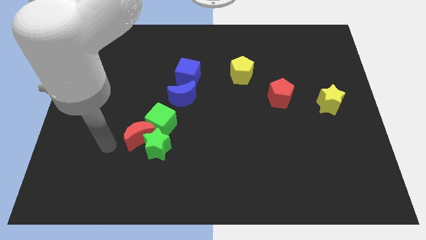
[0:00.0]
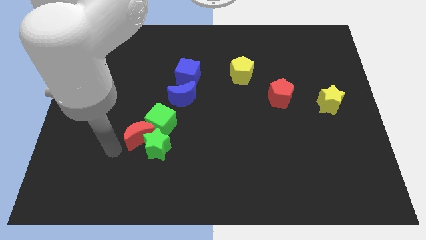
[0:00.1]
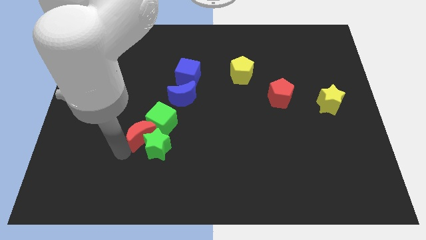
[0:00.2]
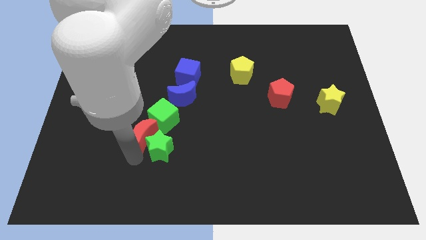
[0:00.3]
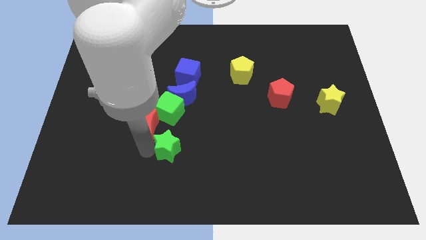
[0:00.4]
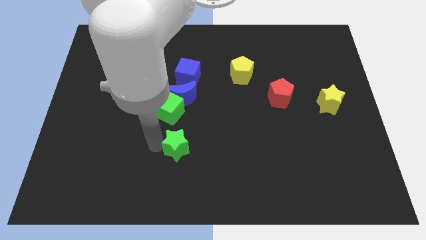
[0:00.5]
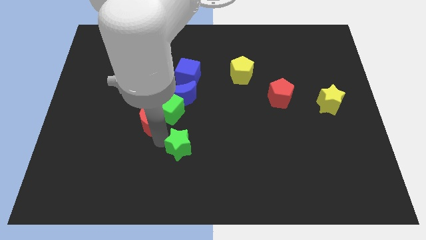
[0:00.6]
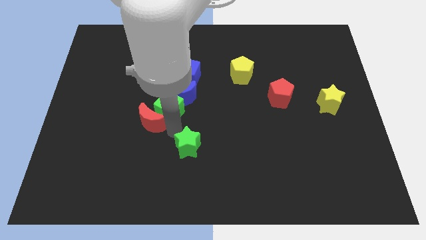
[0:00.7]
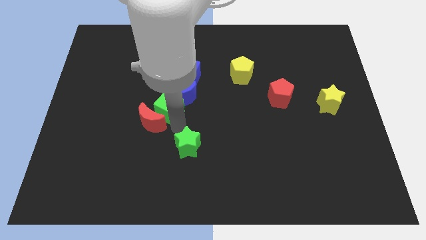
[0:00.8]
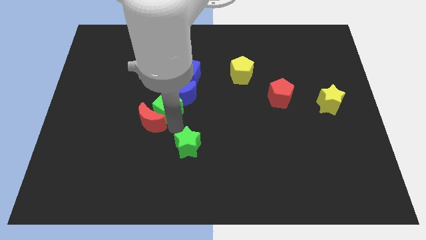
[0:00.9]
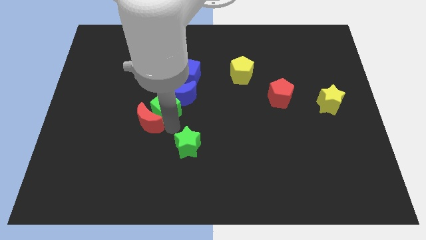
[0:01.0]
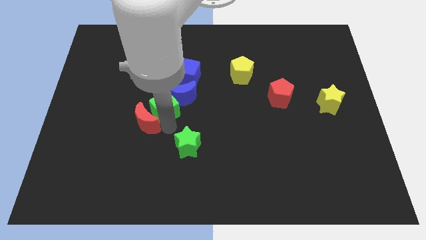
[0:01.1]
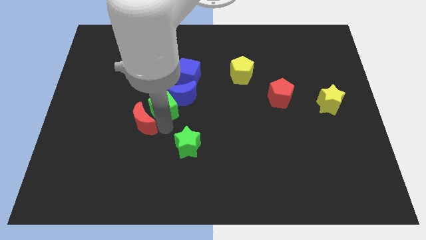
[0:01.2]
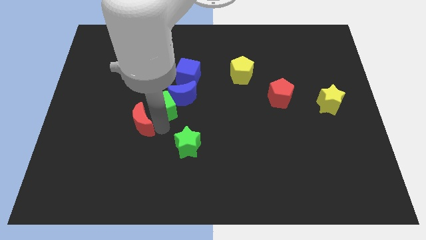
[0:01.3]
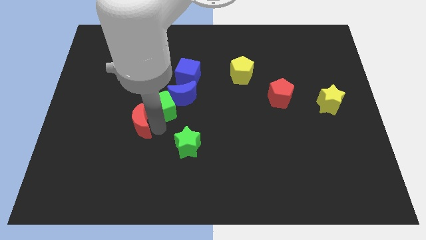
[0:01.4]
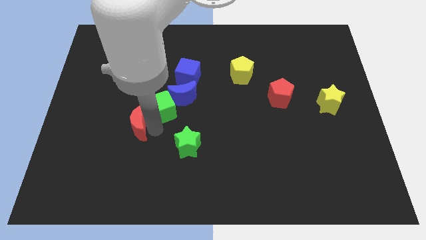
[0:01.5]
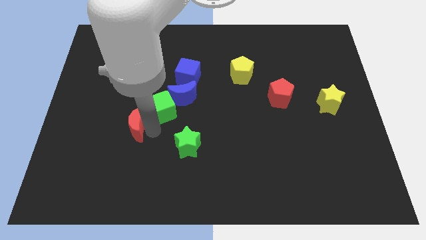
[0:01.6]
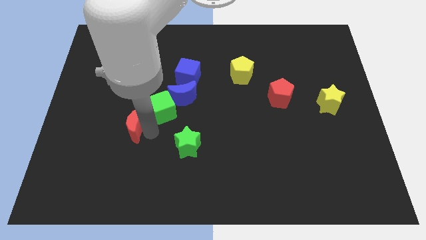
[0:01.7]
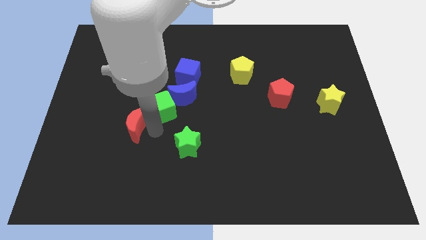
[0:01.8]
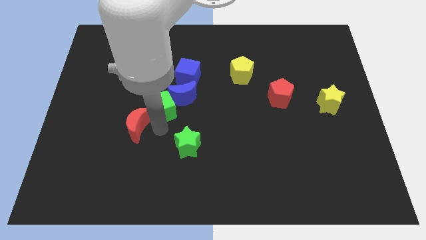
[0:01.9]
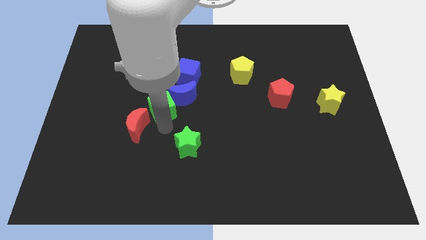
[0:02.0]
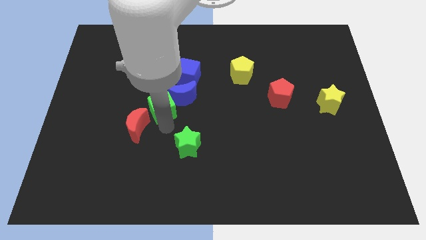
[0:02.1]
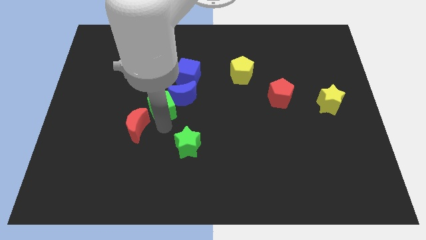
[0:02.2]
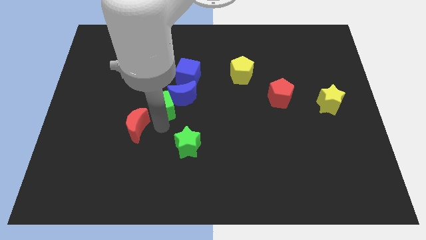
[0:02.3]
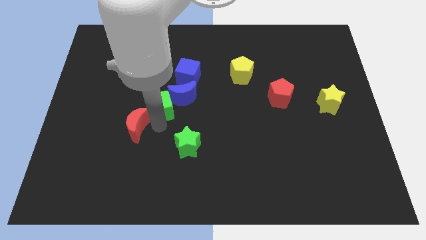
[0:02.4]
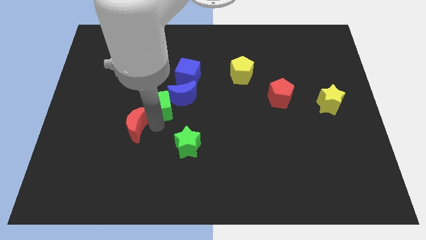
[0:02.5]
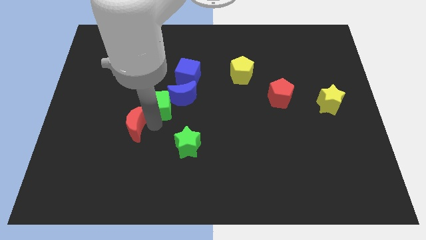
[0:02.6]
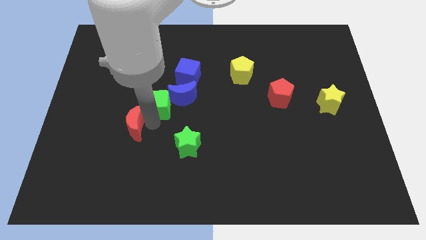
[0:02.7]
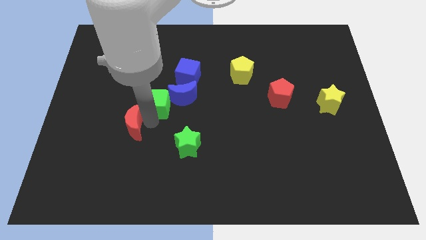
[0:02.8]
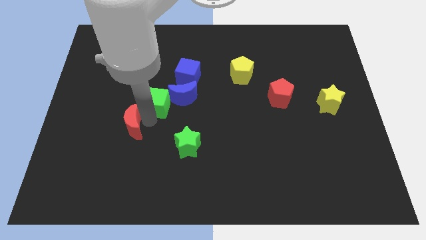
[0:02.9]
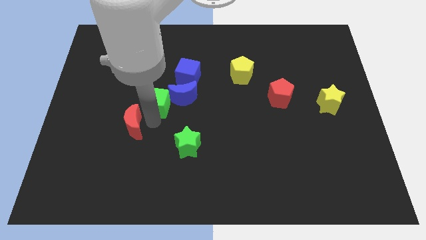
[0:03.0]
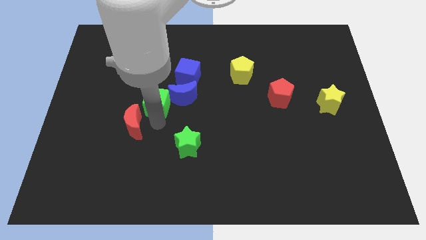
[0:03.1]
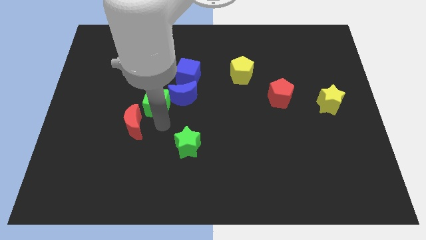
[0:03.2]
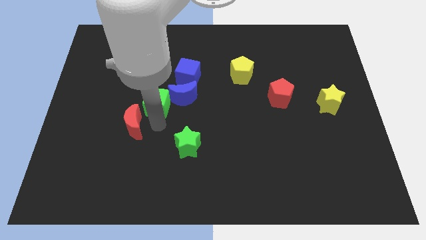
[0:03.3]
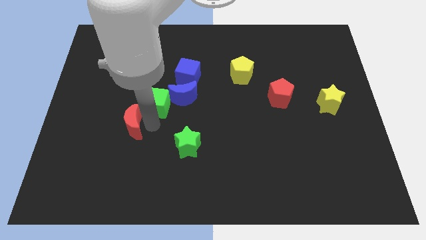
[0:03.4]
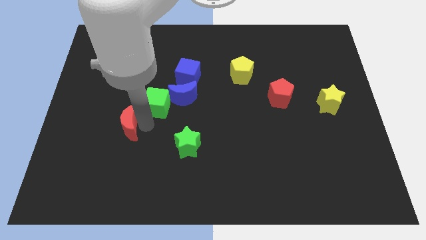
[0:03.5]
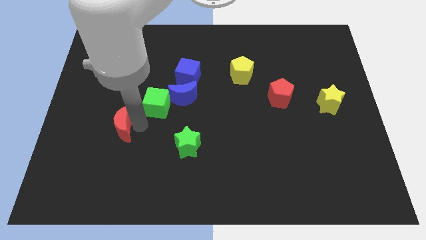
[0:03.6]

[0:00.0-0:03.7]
pull the red moon apart from the green star and green cube

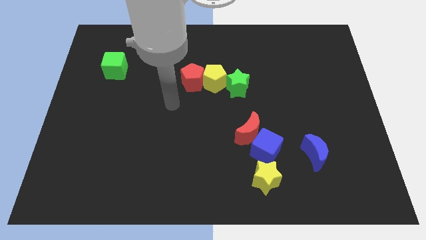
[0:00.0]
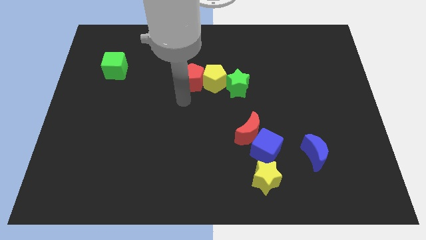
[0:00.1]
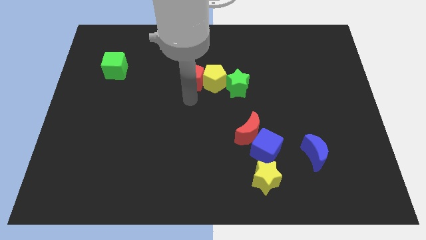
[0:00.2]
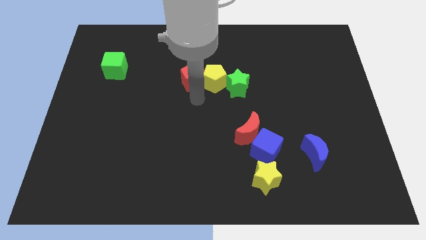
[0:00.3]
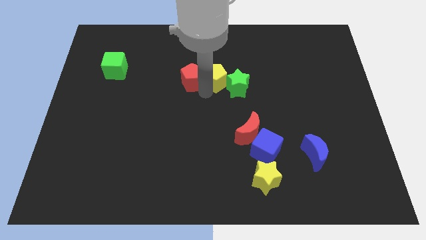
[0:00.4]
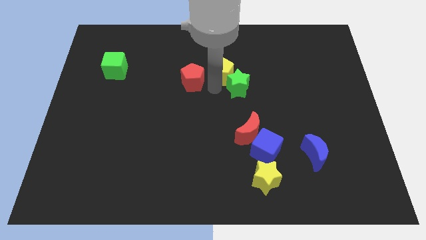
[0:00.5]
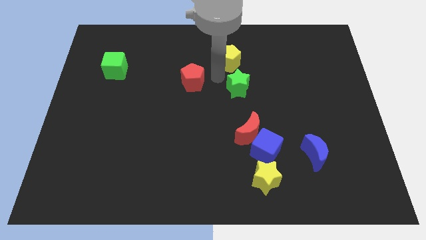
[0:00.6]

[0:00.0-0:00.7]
separate the red pentagon from the yellow pentagon

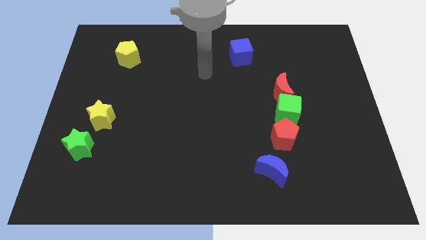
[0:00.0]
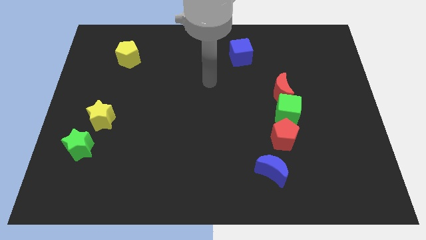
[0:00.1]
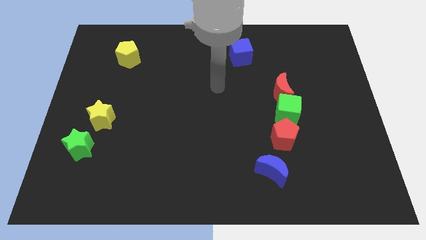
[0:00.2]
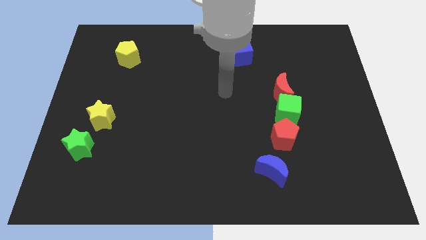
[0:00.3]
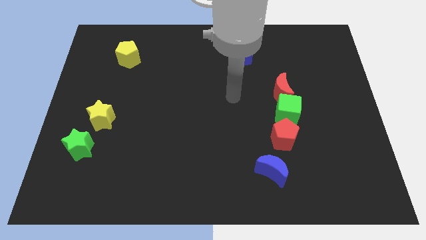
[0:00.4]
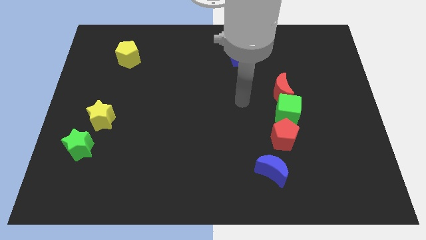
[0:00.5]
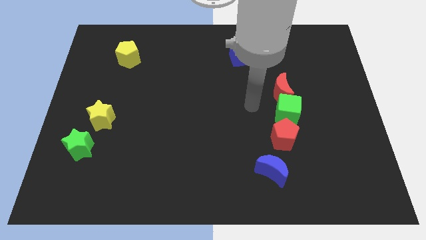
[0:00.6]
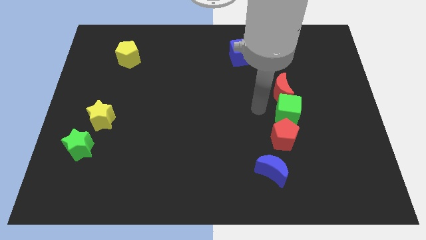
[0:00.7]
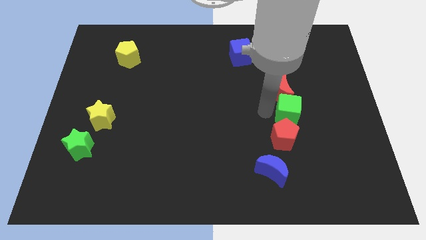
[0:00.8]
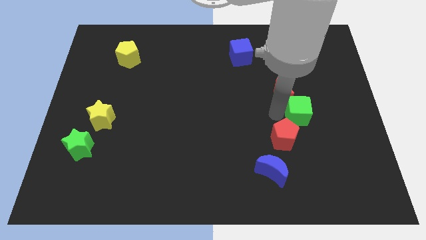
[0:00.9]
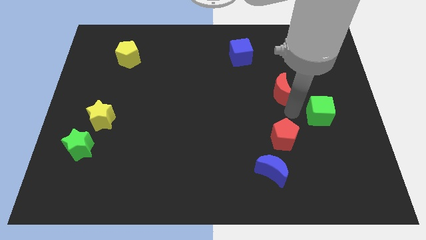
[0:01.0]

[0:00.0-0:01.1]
separate the red moon from the green cube

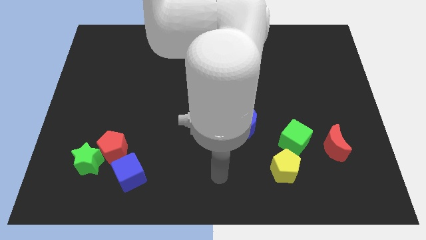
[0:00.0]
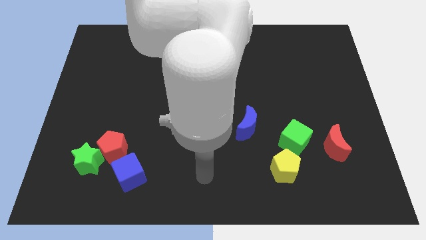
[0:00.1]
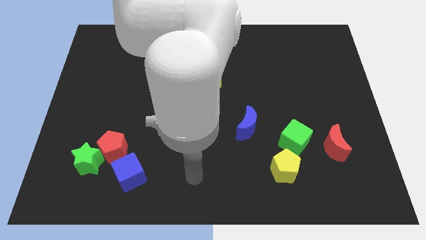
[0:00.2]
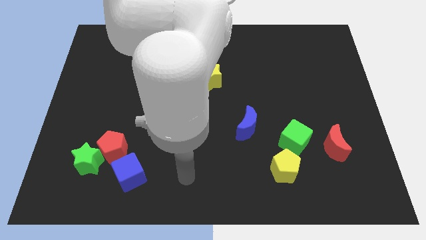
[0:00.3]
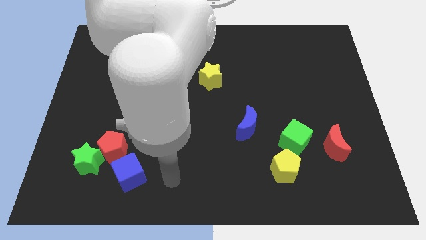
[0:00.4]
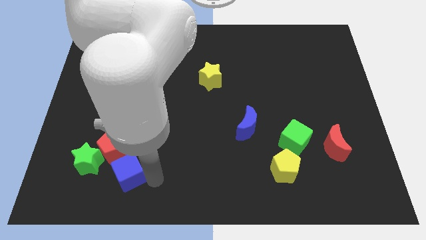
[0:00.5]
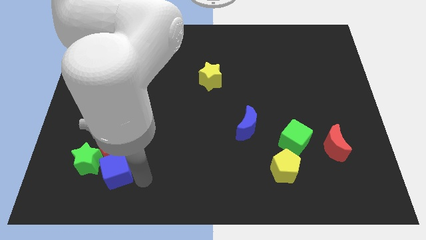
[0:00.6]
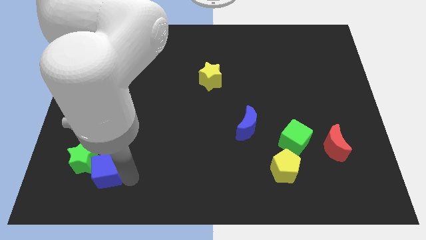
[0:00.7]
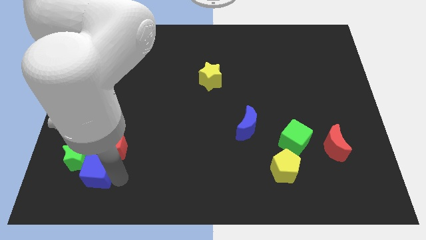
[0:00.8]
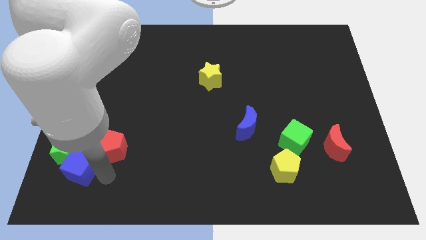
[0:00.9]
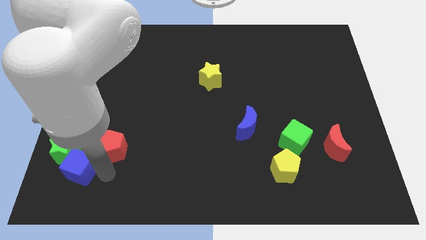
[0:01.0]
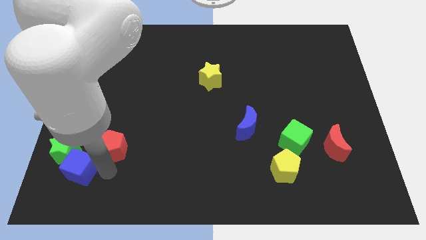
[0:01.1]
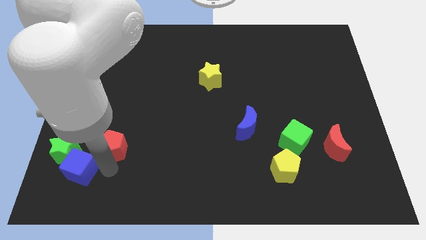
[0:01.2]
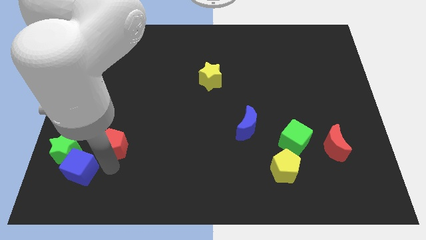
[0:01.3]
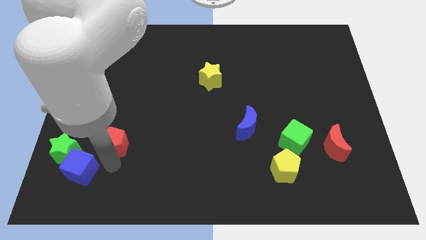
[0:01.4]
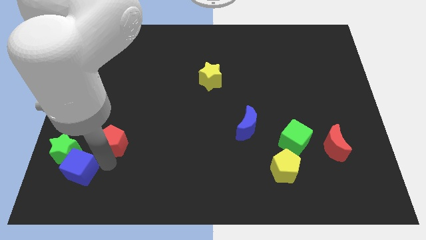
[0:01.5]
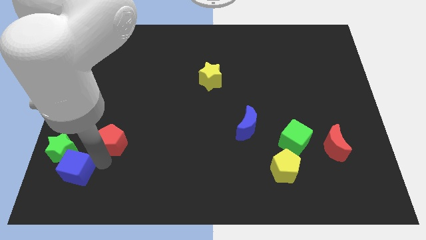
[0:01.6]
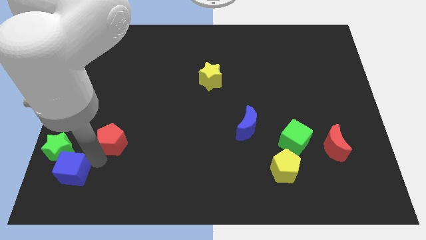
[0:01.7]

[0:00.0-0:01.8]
move the red pentagon away from the green star and blue cube

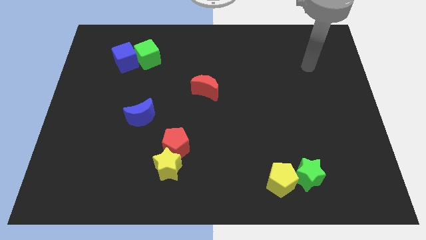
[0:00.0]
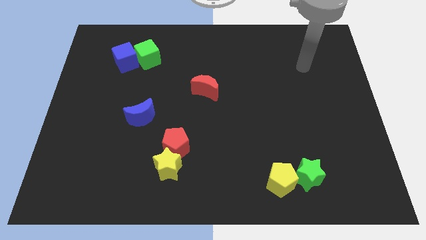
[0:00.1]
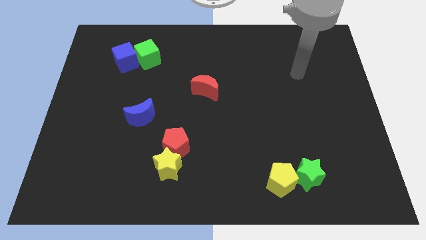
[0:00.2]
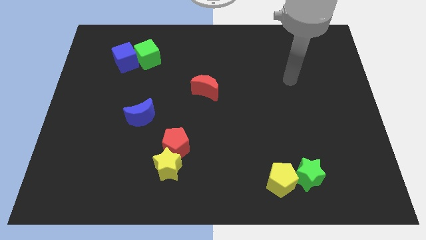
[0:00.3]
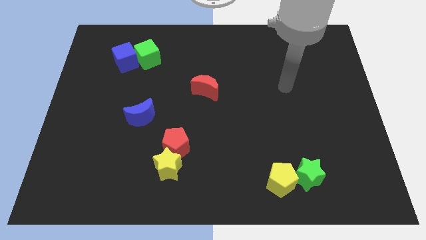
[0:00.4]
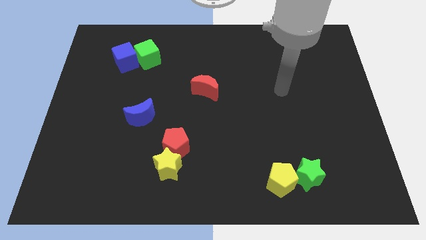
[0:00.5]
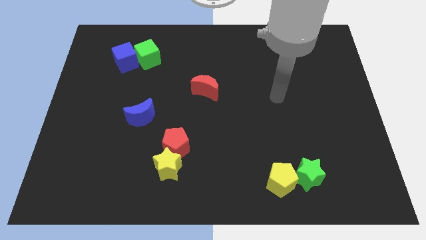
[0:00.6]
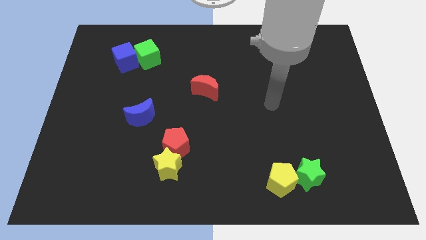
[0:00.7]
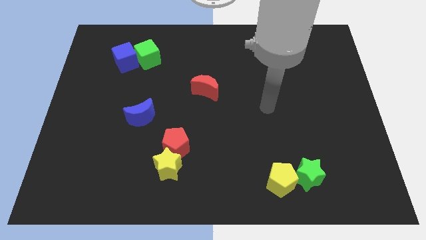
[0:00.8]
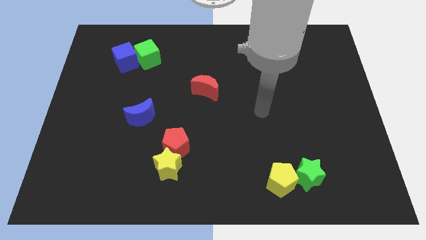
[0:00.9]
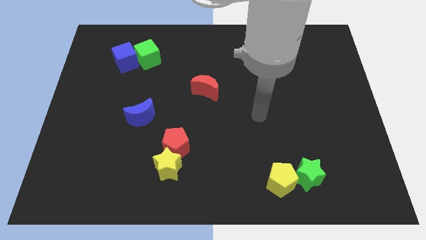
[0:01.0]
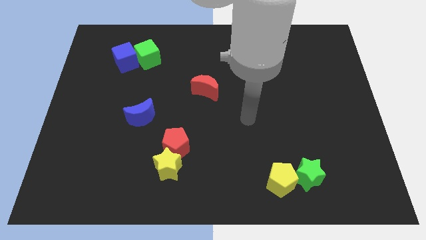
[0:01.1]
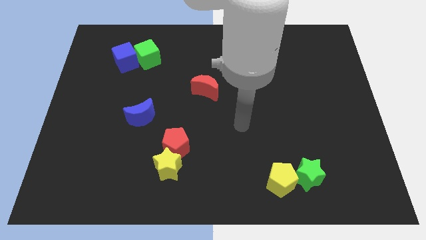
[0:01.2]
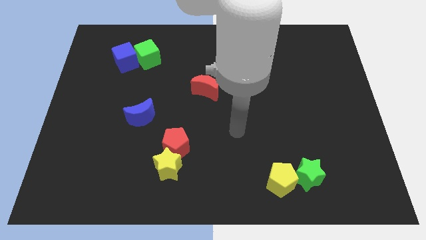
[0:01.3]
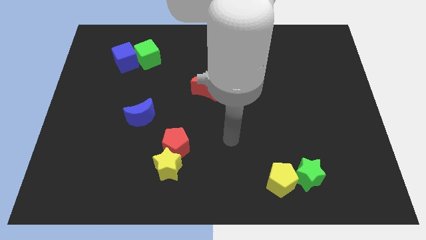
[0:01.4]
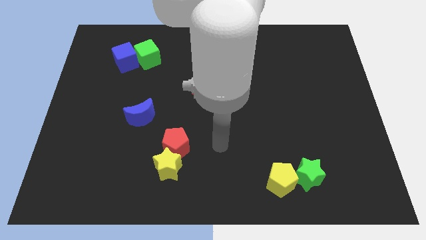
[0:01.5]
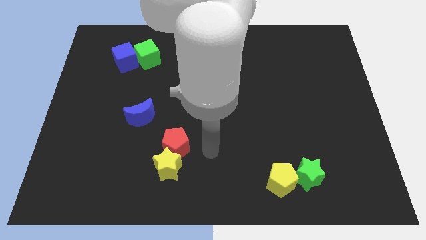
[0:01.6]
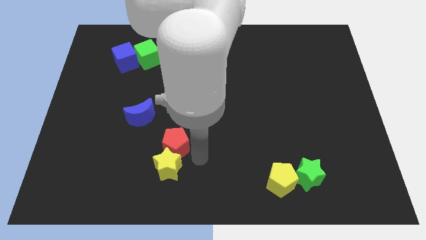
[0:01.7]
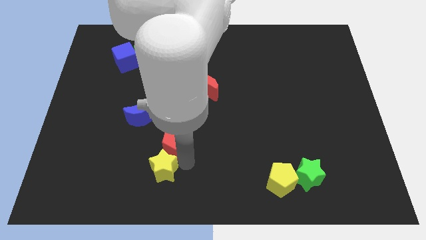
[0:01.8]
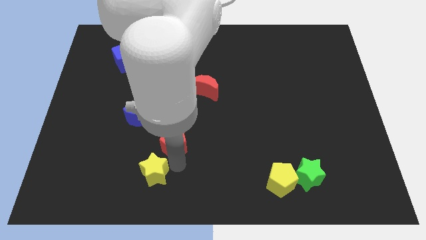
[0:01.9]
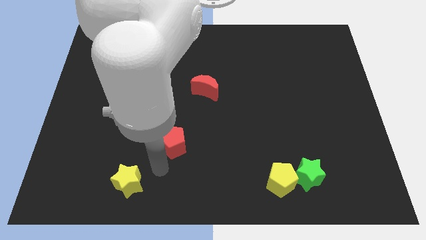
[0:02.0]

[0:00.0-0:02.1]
move the red pentagon away from the yellow star
